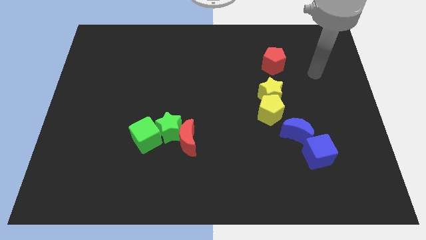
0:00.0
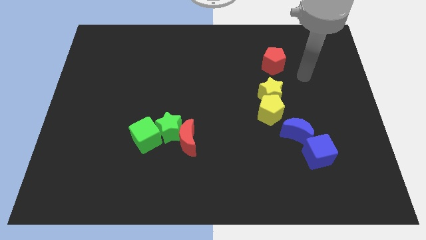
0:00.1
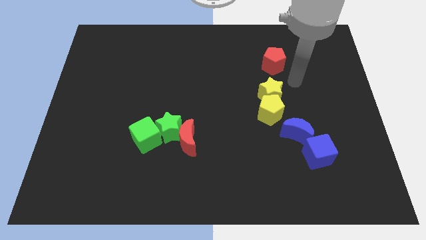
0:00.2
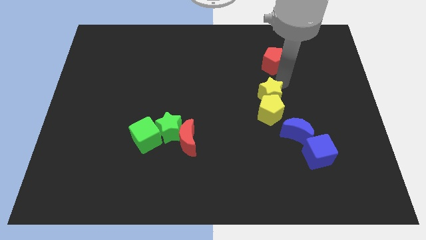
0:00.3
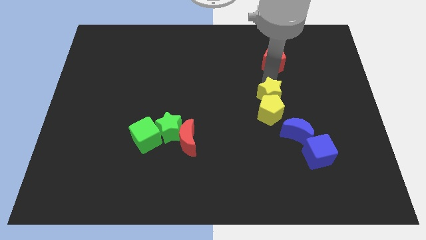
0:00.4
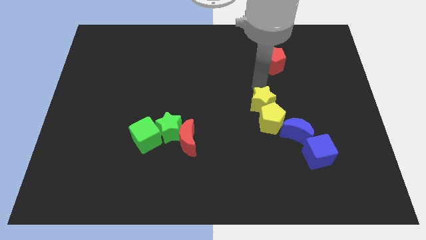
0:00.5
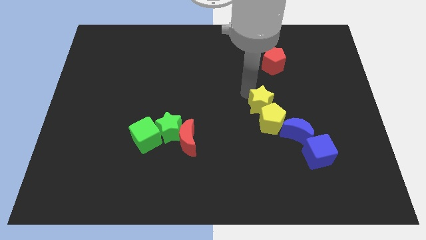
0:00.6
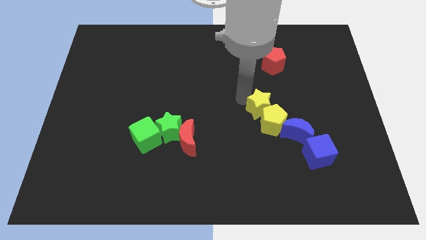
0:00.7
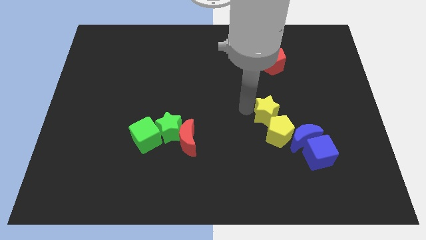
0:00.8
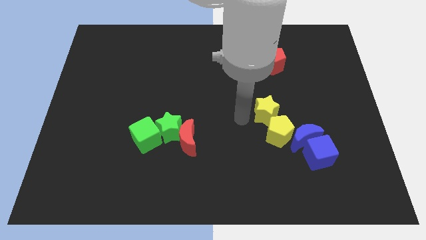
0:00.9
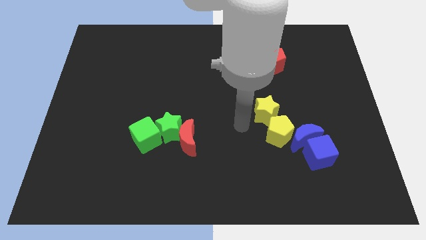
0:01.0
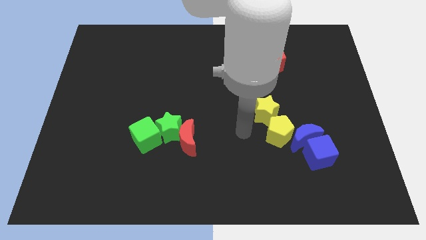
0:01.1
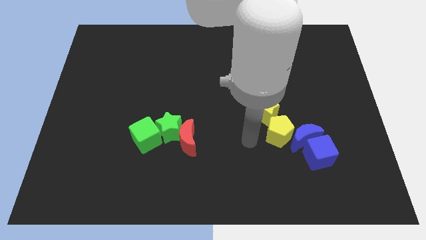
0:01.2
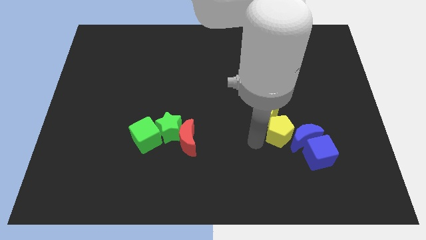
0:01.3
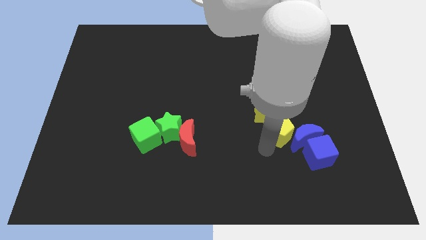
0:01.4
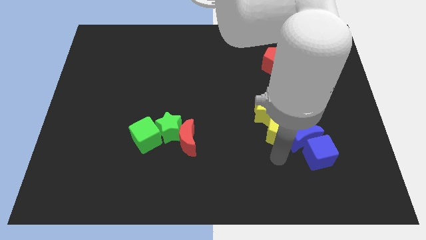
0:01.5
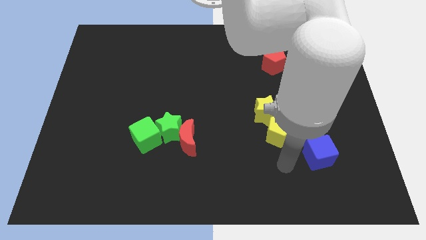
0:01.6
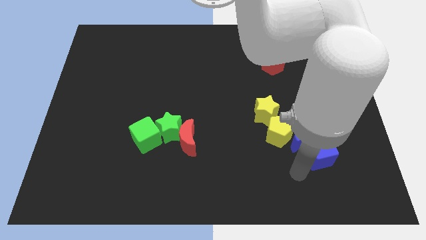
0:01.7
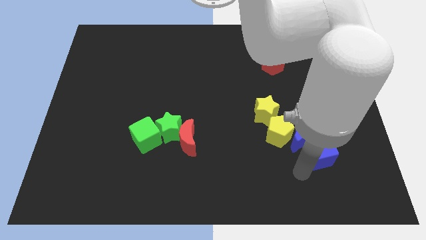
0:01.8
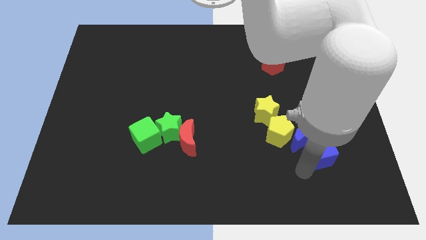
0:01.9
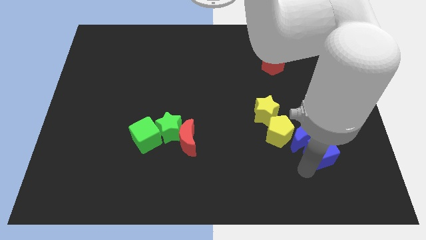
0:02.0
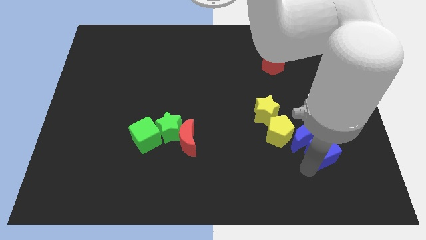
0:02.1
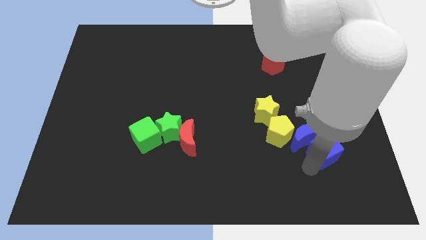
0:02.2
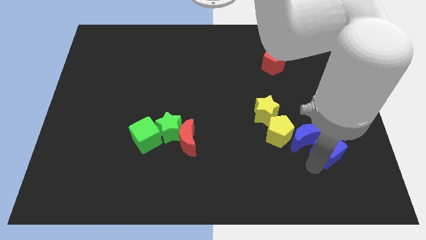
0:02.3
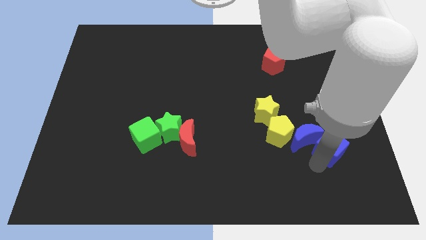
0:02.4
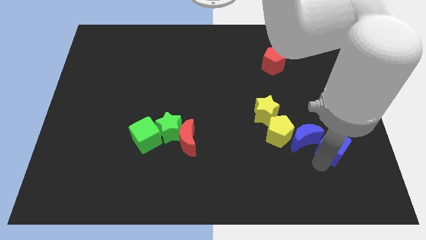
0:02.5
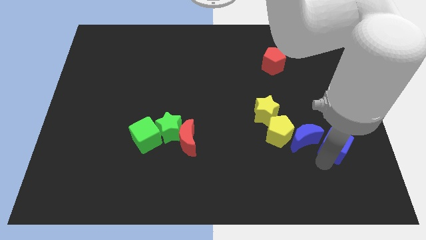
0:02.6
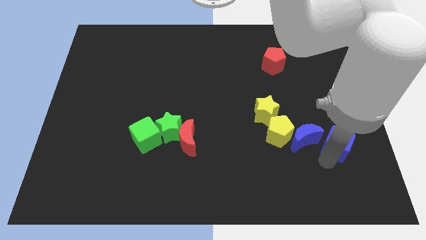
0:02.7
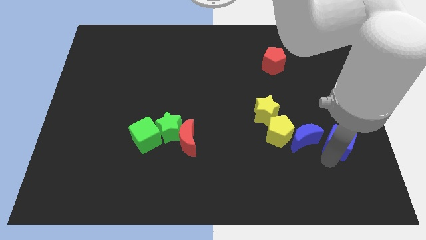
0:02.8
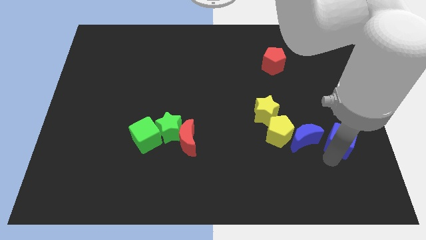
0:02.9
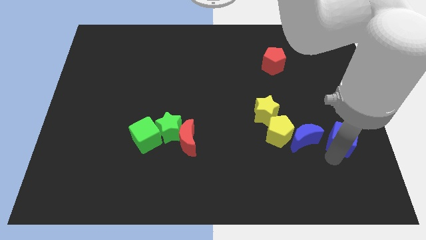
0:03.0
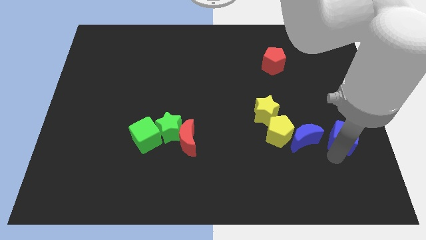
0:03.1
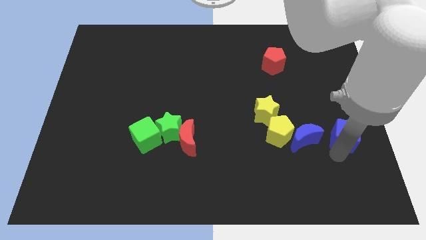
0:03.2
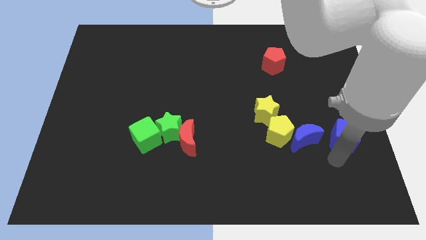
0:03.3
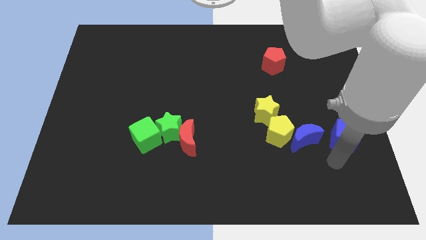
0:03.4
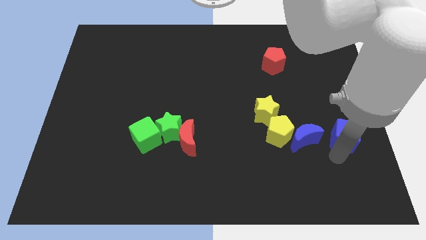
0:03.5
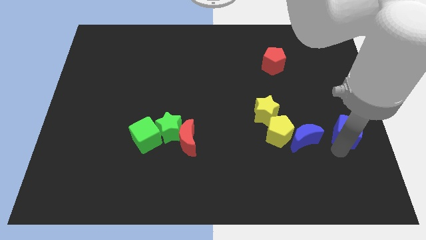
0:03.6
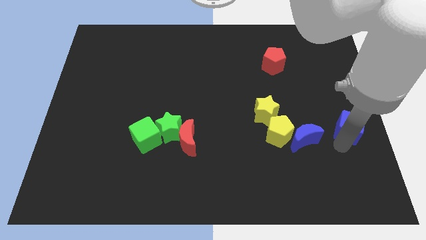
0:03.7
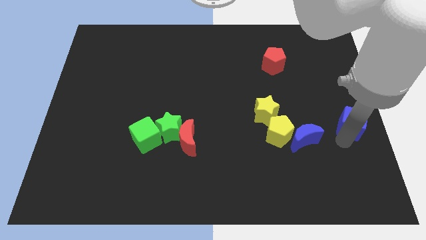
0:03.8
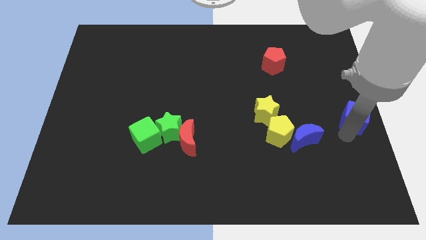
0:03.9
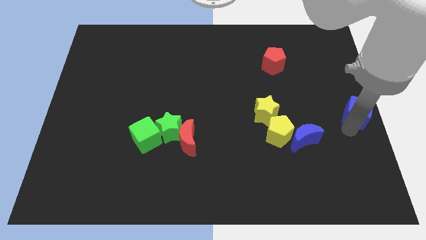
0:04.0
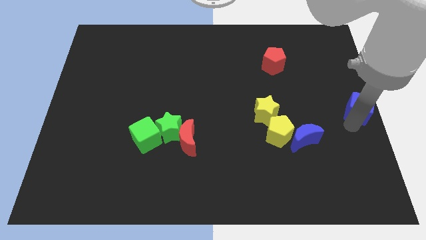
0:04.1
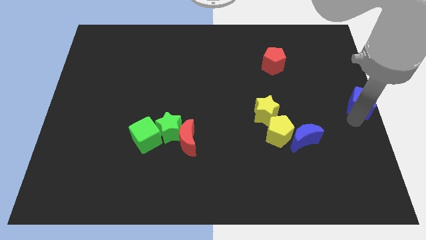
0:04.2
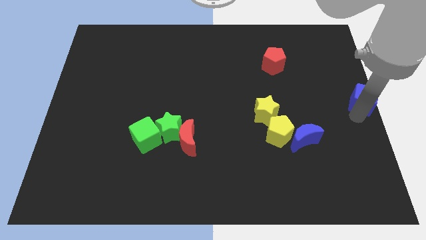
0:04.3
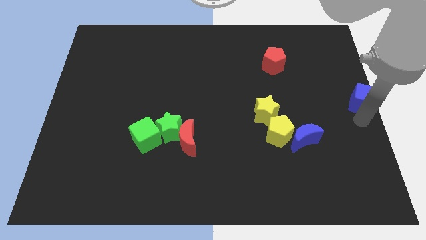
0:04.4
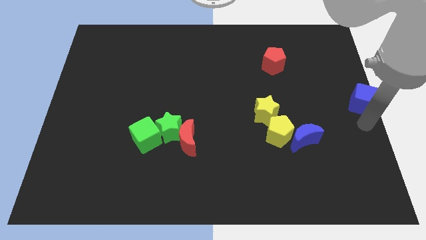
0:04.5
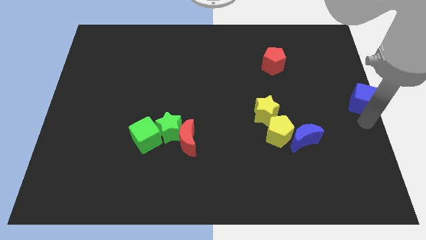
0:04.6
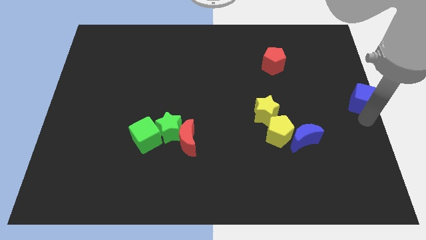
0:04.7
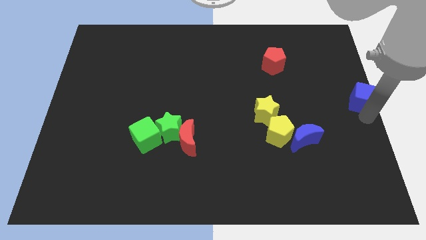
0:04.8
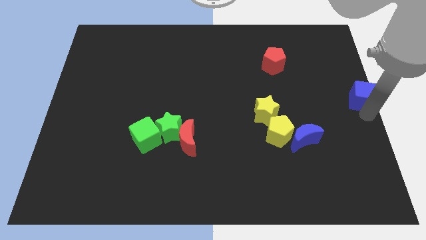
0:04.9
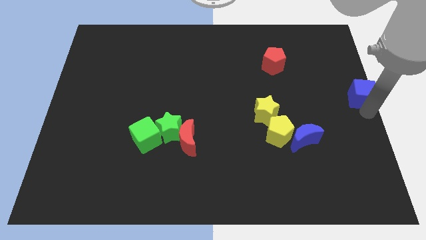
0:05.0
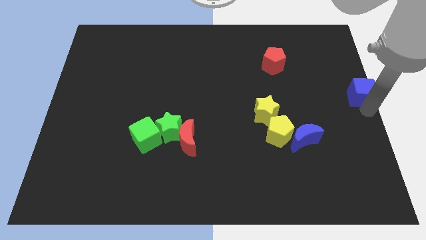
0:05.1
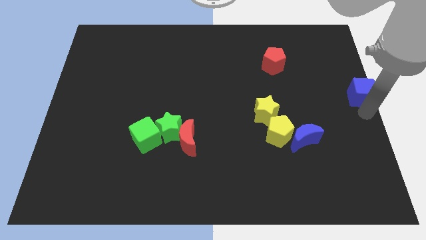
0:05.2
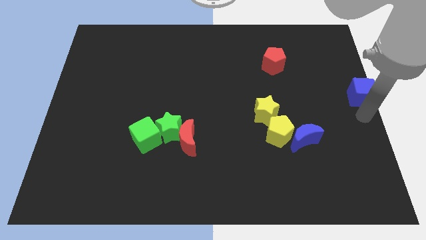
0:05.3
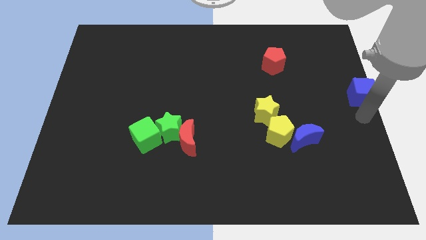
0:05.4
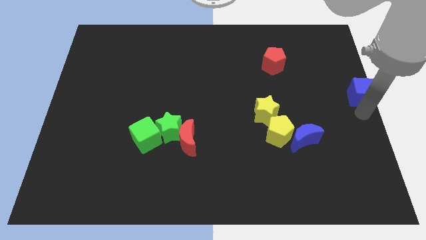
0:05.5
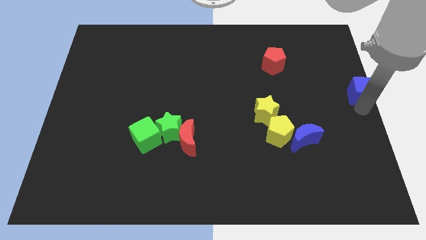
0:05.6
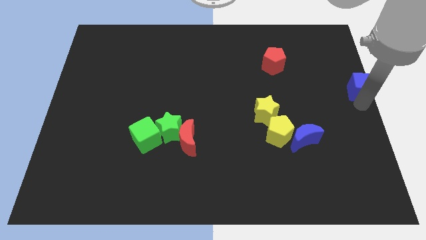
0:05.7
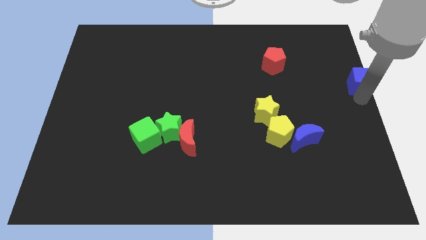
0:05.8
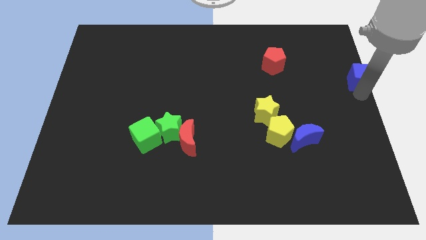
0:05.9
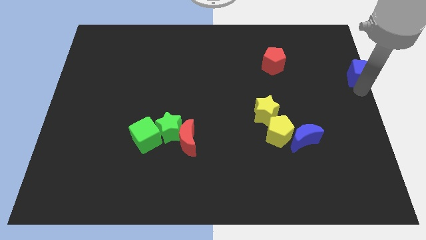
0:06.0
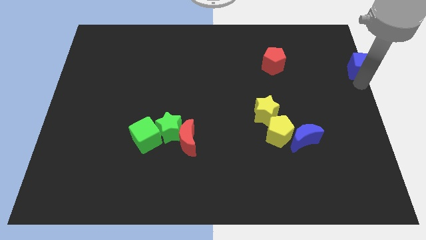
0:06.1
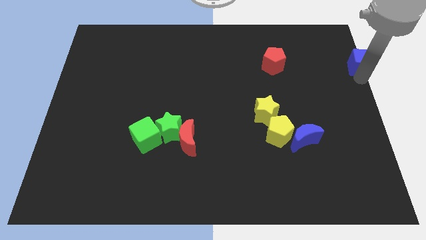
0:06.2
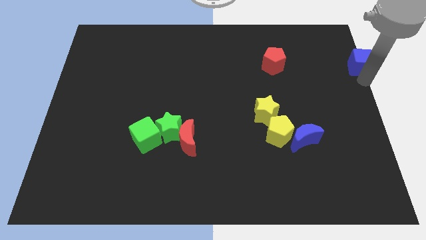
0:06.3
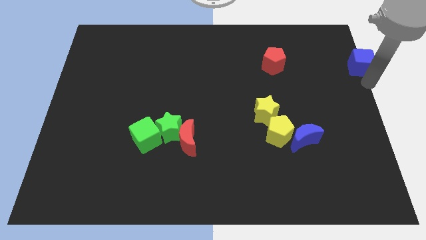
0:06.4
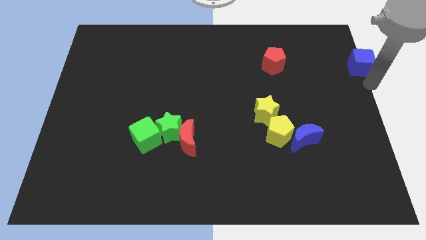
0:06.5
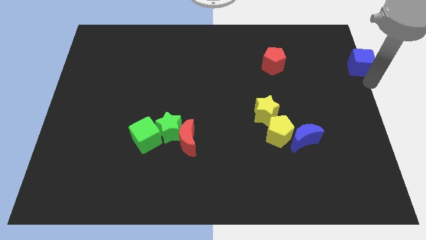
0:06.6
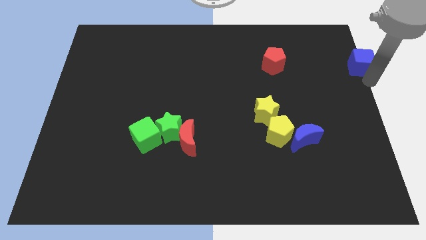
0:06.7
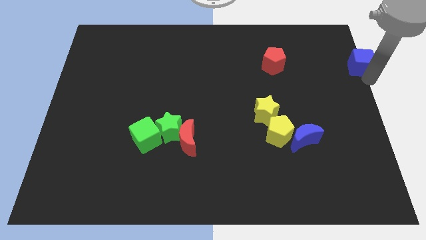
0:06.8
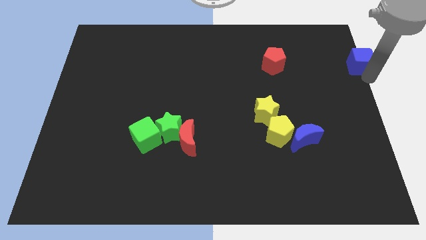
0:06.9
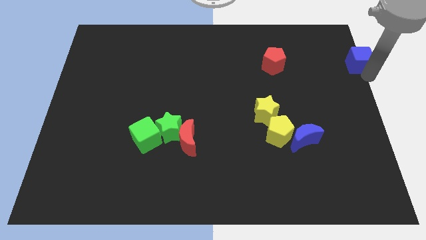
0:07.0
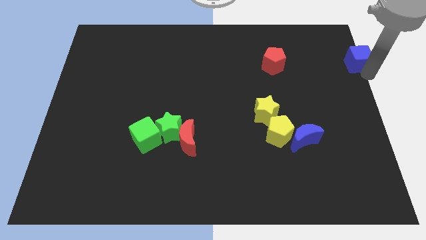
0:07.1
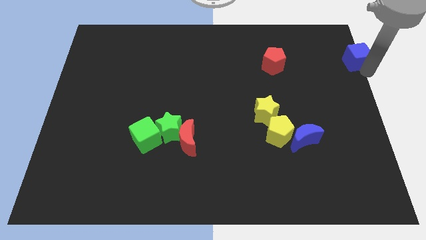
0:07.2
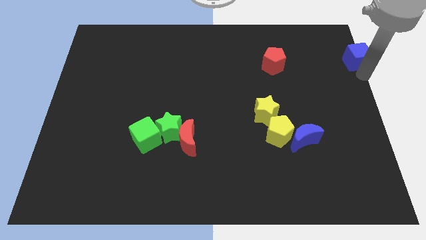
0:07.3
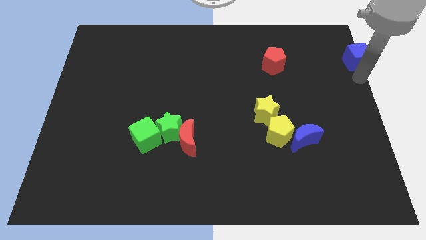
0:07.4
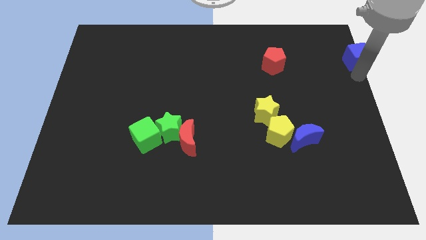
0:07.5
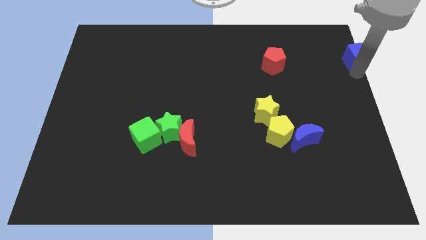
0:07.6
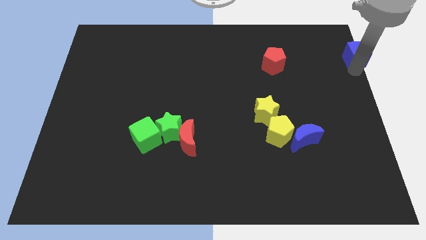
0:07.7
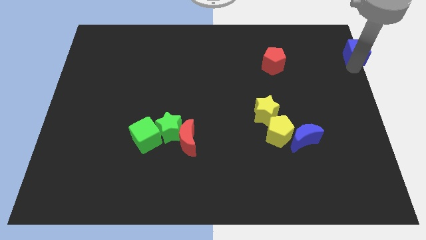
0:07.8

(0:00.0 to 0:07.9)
slide the blue cube to the top right corner
